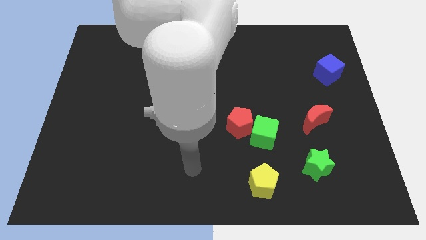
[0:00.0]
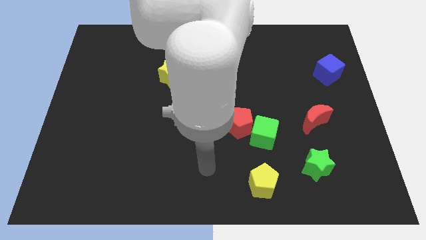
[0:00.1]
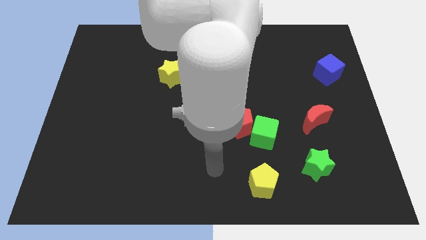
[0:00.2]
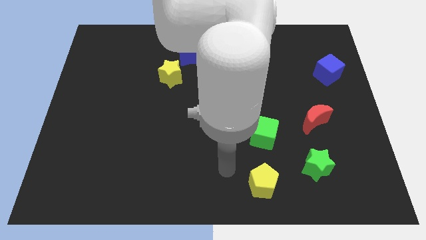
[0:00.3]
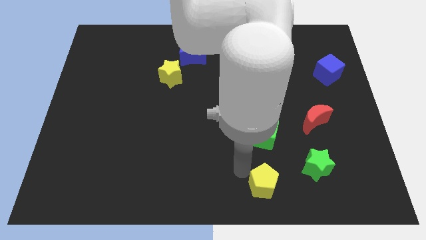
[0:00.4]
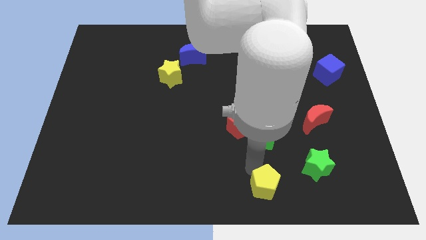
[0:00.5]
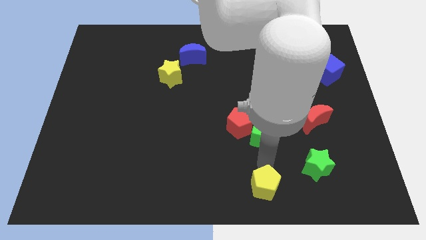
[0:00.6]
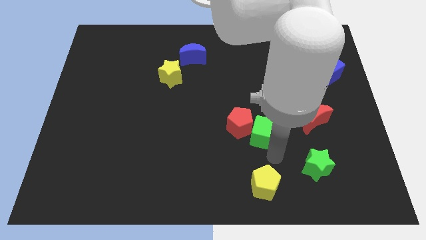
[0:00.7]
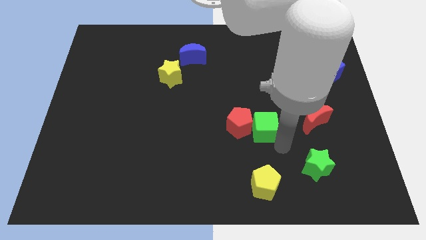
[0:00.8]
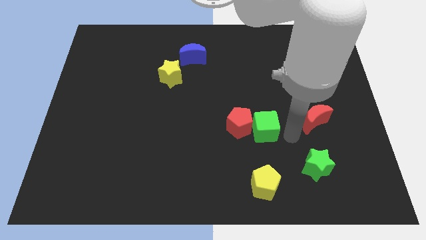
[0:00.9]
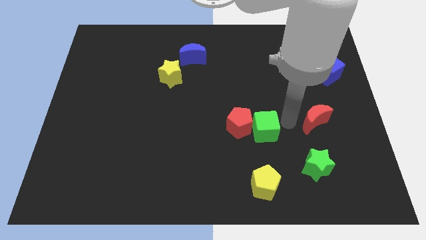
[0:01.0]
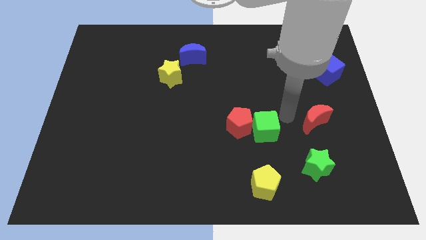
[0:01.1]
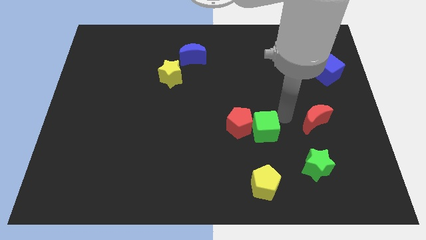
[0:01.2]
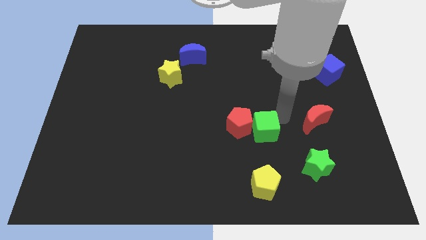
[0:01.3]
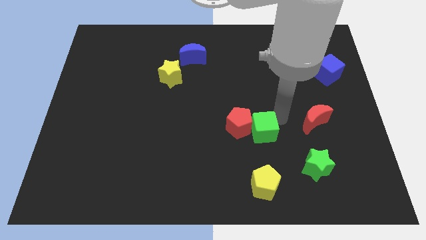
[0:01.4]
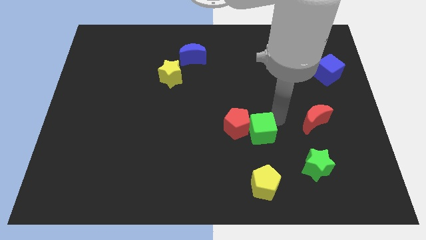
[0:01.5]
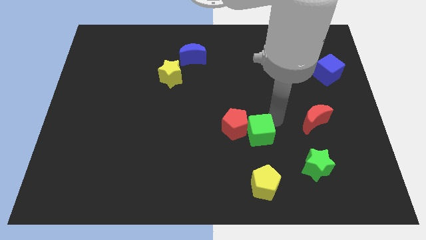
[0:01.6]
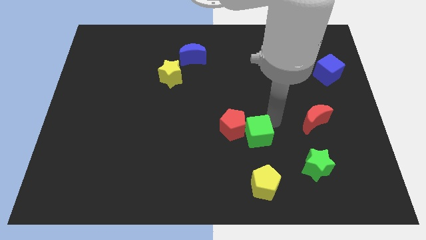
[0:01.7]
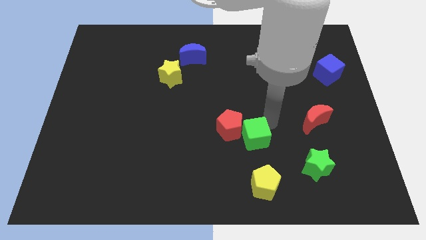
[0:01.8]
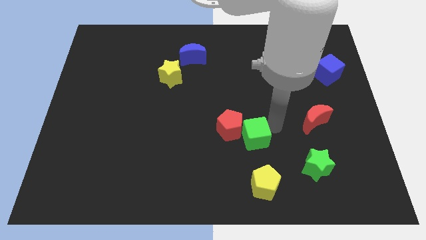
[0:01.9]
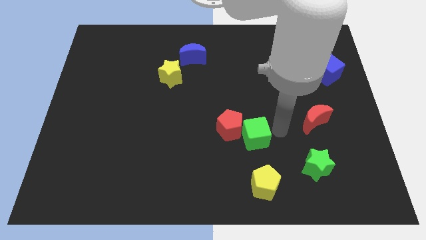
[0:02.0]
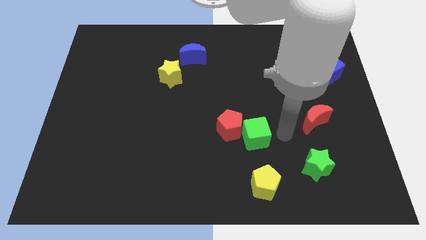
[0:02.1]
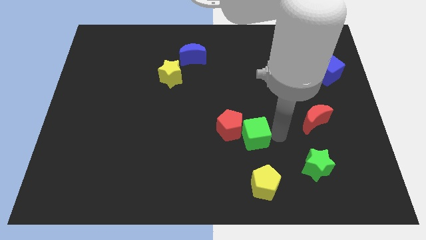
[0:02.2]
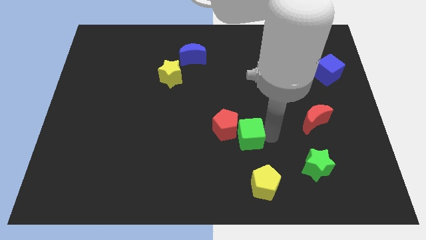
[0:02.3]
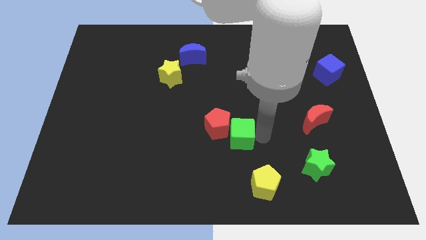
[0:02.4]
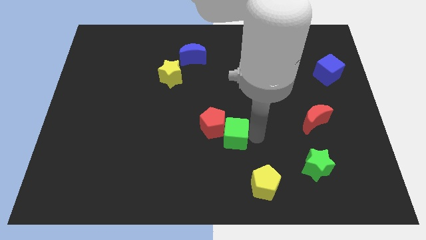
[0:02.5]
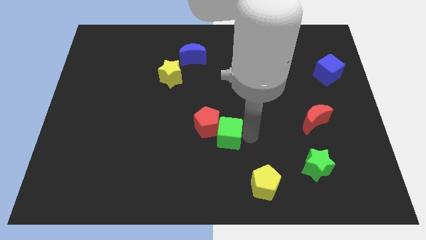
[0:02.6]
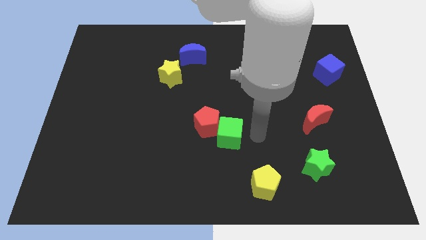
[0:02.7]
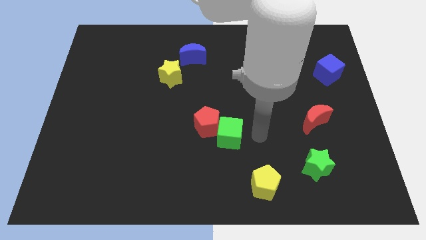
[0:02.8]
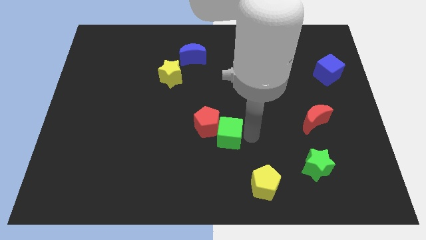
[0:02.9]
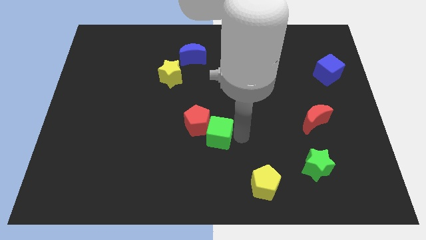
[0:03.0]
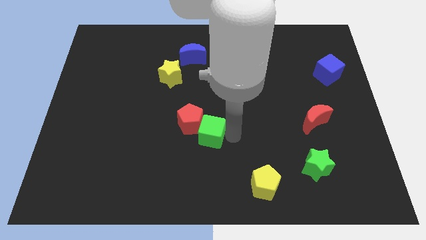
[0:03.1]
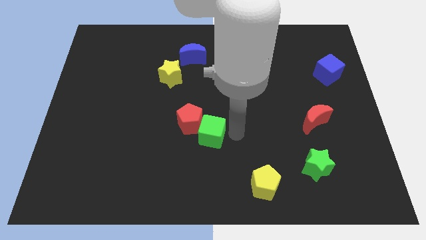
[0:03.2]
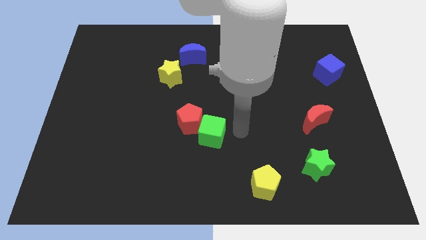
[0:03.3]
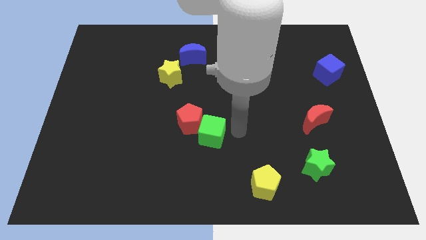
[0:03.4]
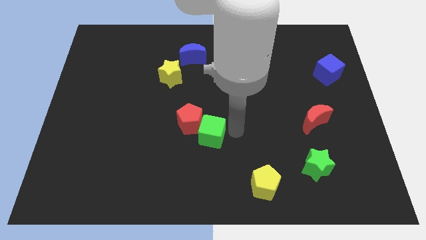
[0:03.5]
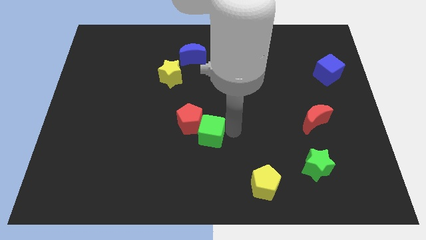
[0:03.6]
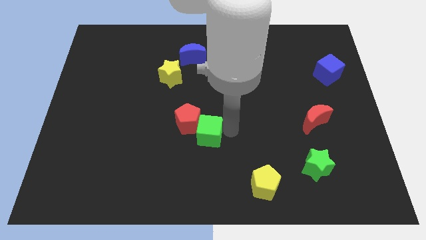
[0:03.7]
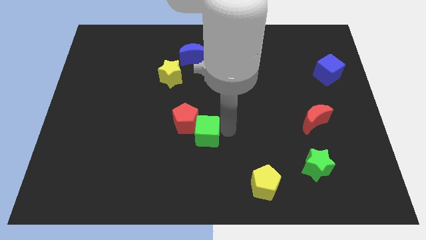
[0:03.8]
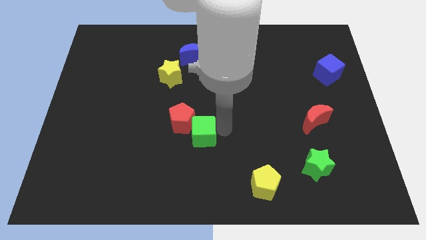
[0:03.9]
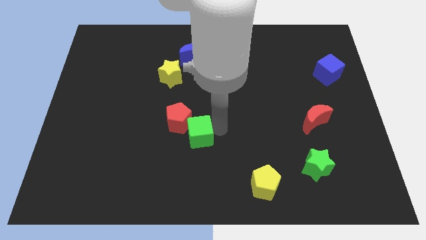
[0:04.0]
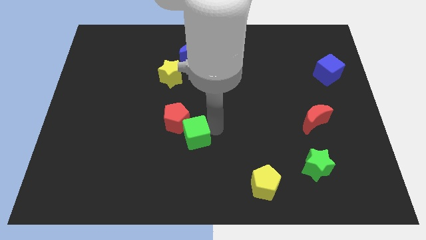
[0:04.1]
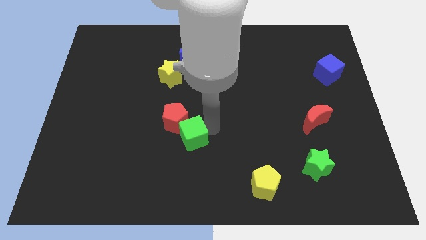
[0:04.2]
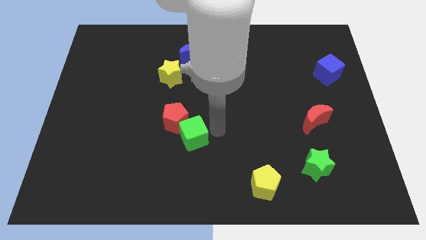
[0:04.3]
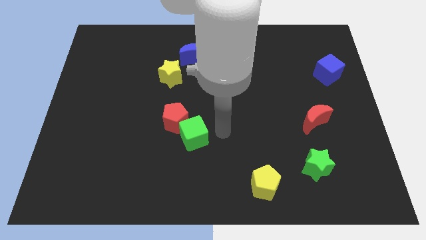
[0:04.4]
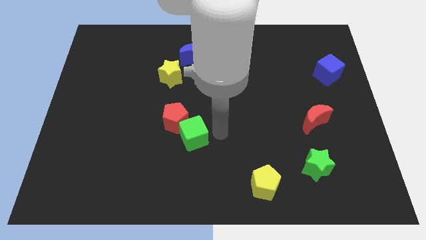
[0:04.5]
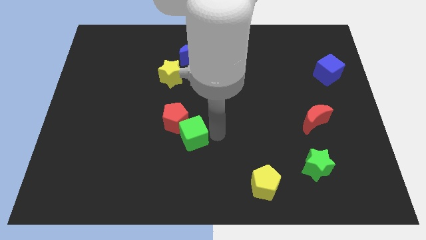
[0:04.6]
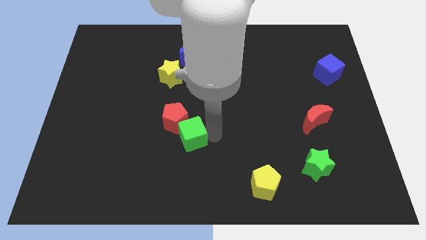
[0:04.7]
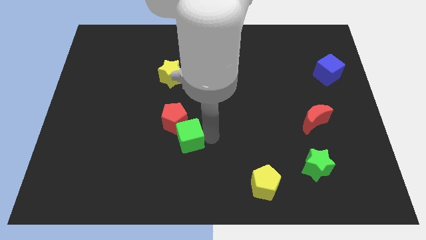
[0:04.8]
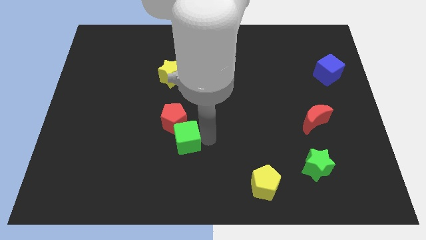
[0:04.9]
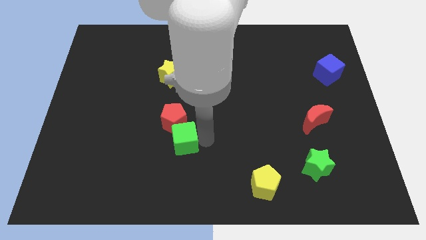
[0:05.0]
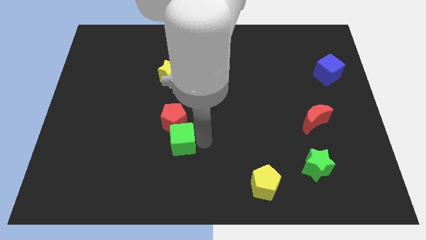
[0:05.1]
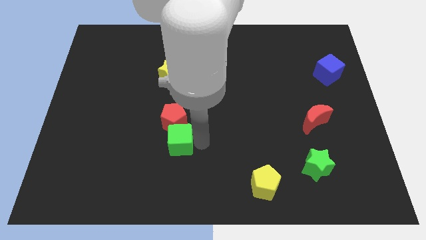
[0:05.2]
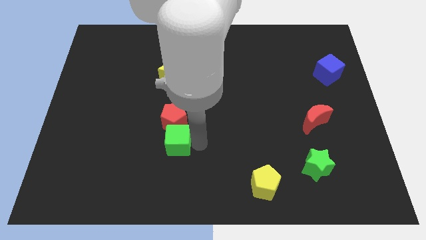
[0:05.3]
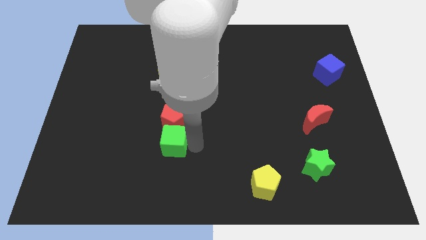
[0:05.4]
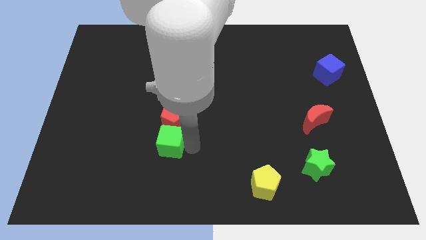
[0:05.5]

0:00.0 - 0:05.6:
move the green cube left

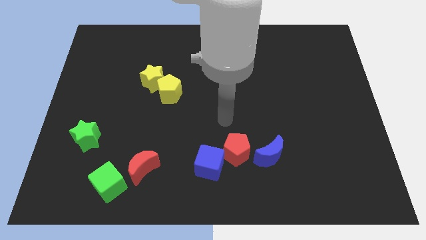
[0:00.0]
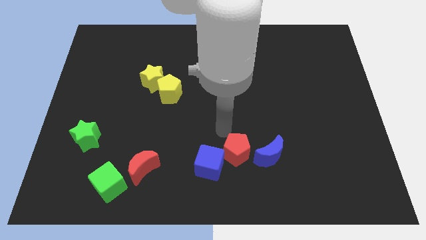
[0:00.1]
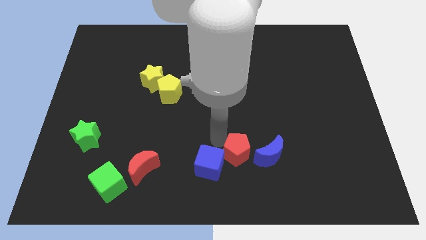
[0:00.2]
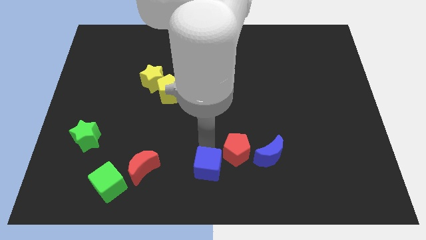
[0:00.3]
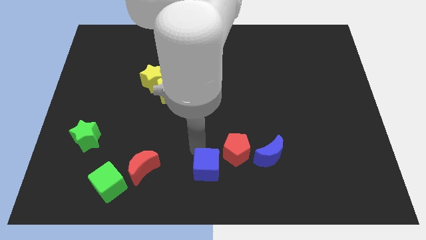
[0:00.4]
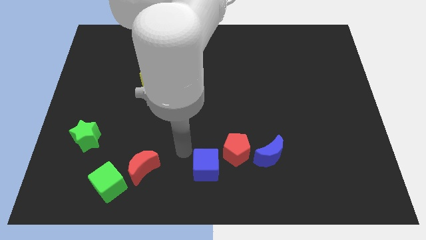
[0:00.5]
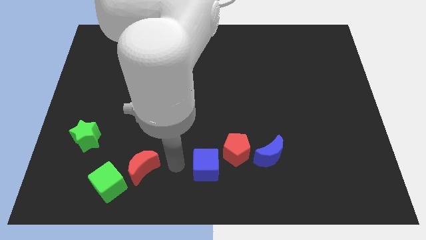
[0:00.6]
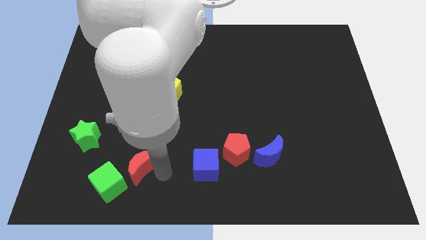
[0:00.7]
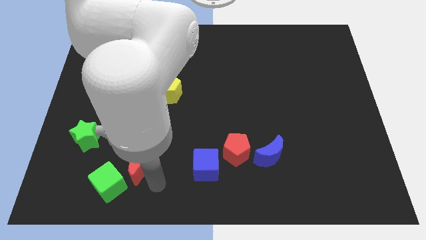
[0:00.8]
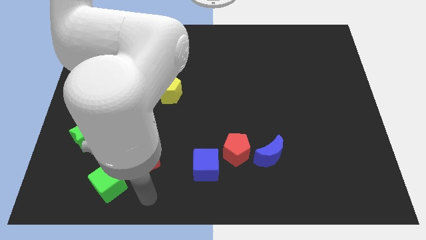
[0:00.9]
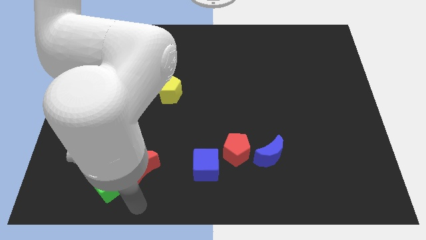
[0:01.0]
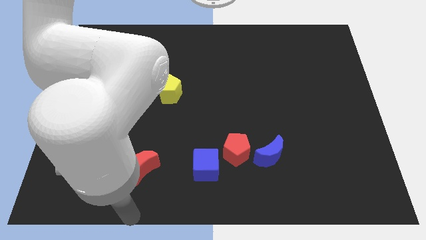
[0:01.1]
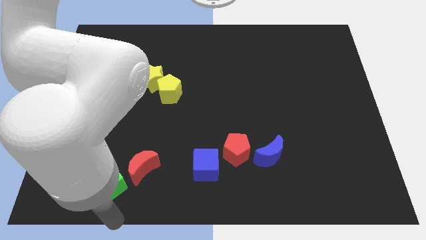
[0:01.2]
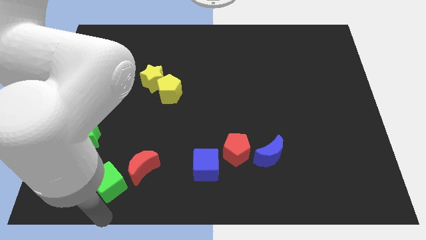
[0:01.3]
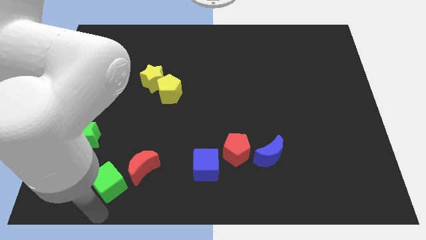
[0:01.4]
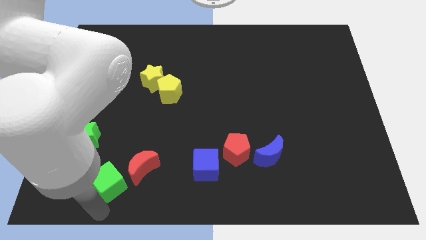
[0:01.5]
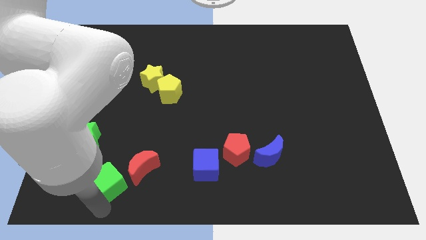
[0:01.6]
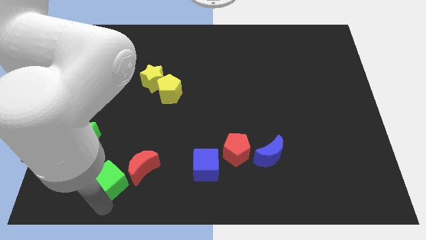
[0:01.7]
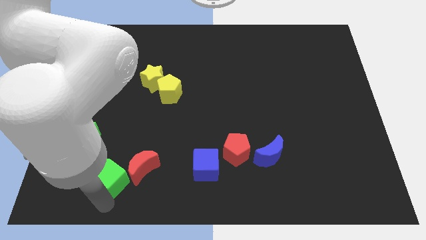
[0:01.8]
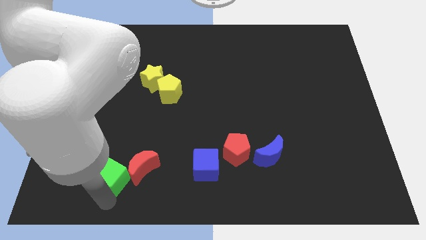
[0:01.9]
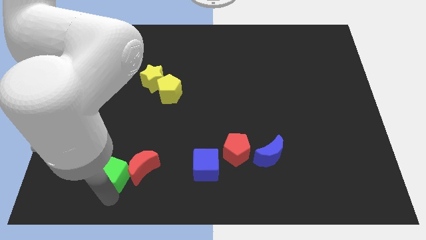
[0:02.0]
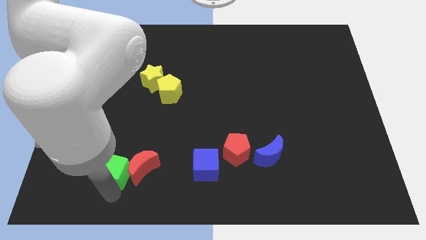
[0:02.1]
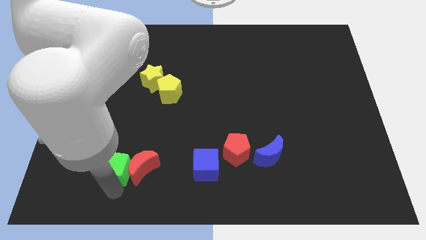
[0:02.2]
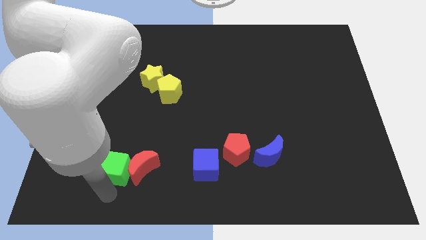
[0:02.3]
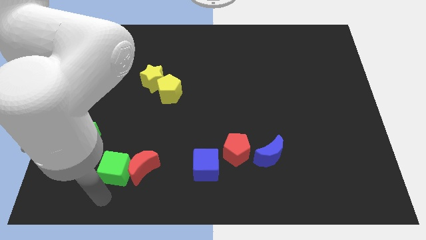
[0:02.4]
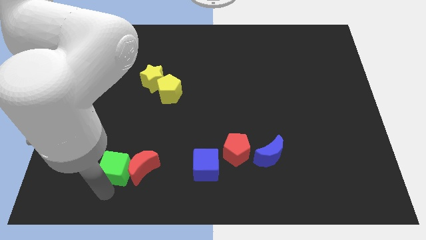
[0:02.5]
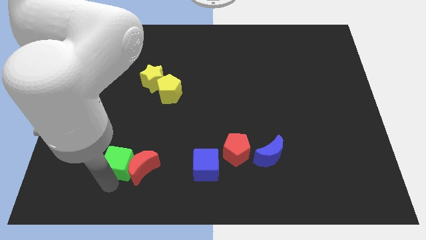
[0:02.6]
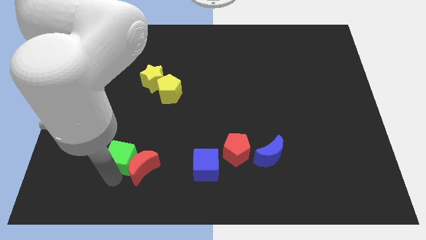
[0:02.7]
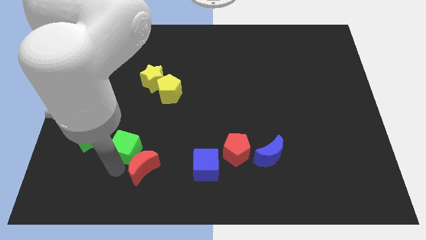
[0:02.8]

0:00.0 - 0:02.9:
slide the green cube a little bit upwards and to the right
